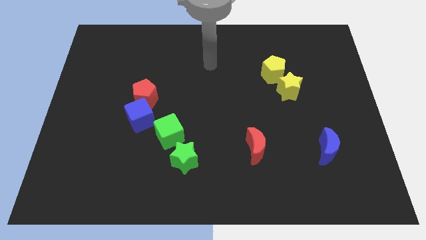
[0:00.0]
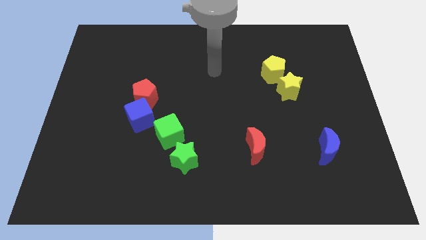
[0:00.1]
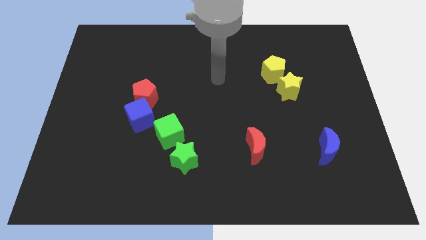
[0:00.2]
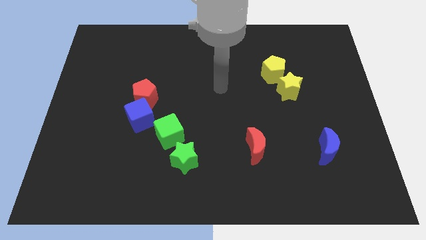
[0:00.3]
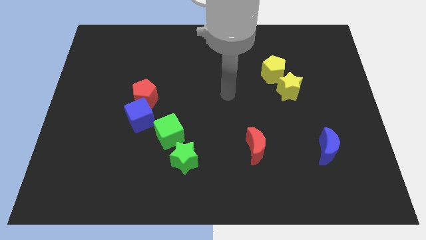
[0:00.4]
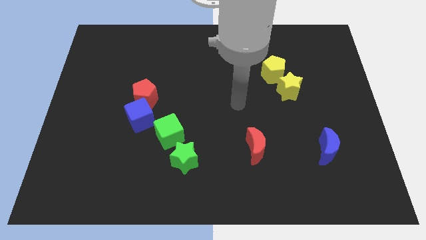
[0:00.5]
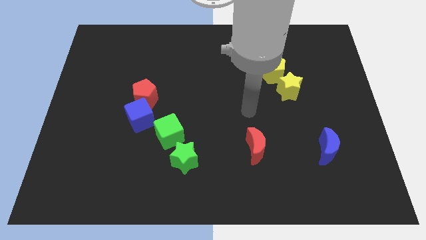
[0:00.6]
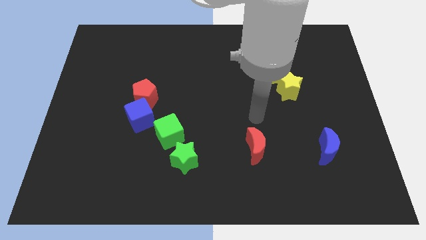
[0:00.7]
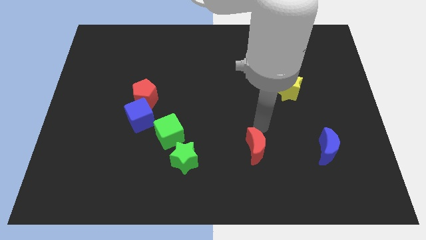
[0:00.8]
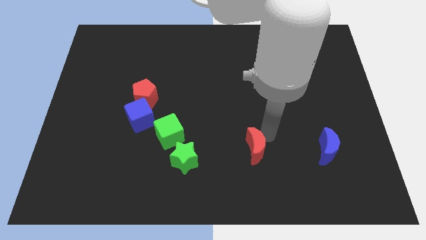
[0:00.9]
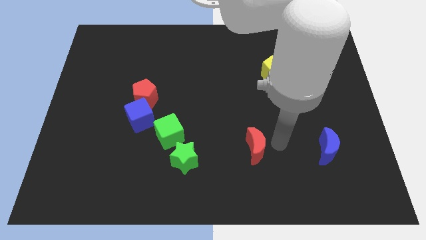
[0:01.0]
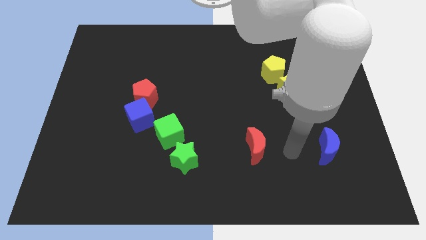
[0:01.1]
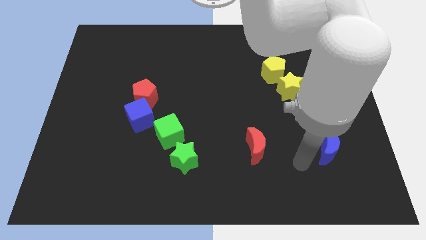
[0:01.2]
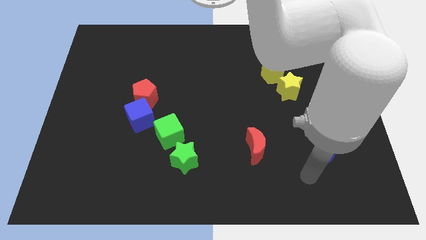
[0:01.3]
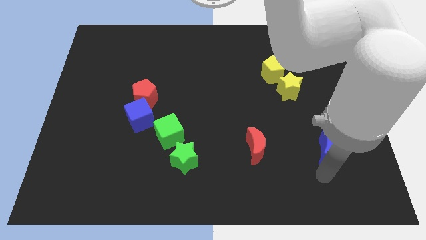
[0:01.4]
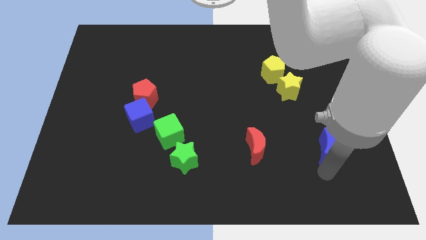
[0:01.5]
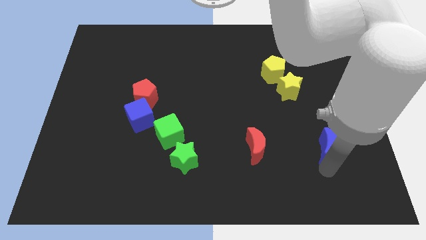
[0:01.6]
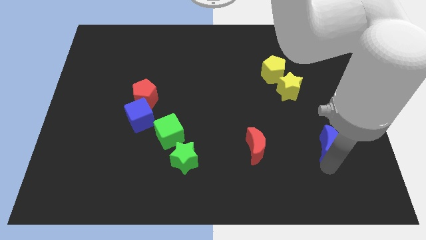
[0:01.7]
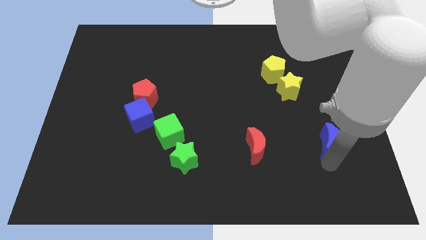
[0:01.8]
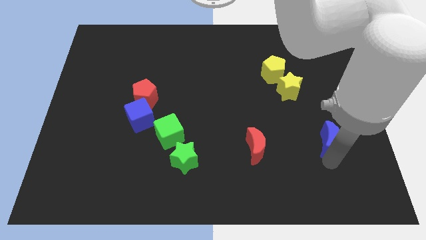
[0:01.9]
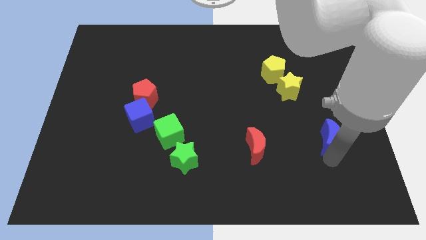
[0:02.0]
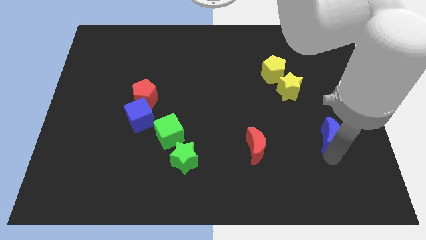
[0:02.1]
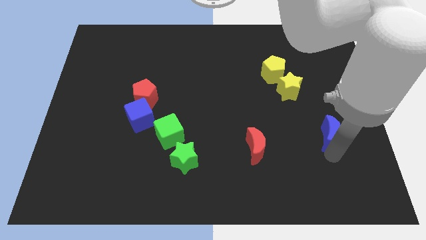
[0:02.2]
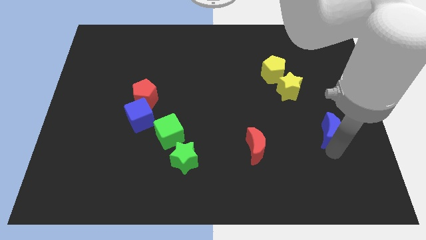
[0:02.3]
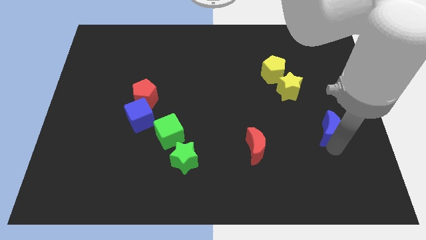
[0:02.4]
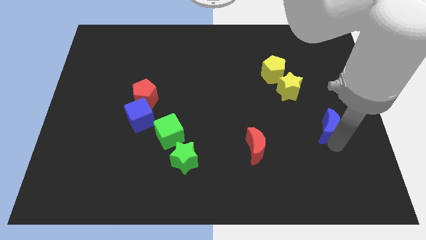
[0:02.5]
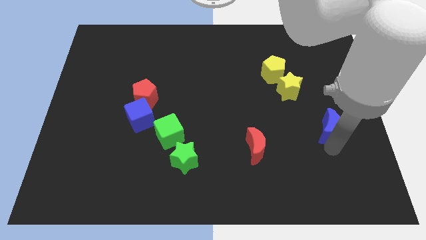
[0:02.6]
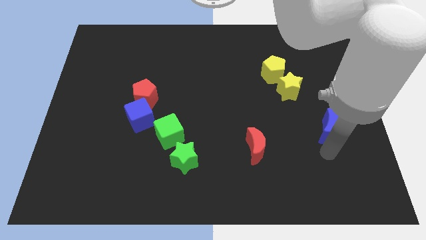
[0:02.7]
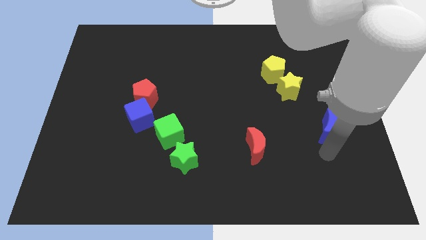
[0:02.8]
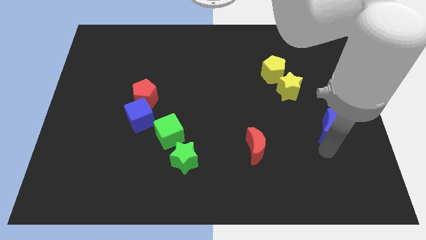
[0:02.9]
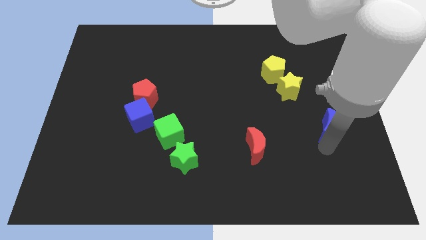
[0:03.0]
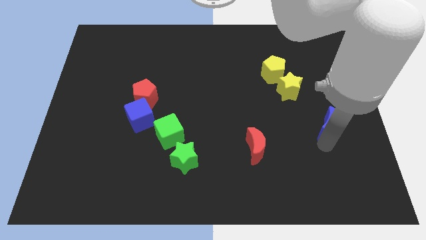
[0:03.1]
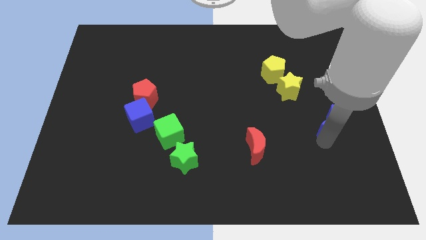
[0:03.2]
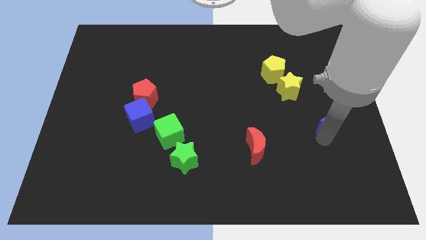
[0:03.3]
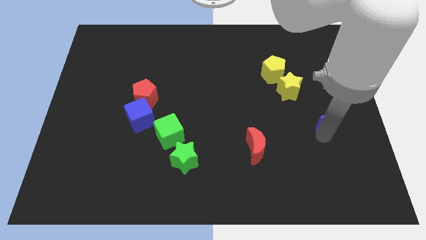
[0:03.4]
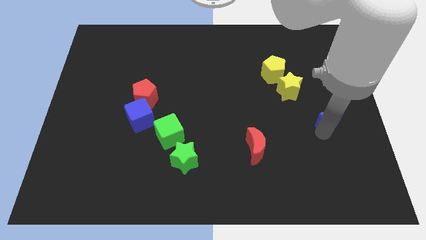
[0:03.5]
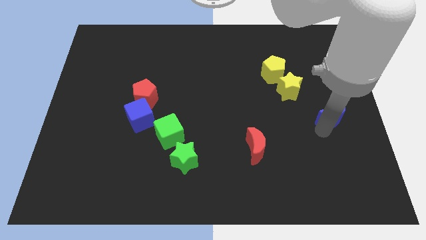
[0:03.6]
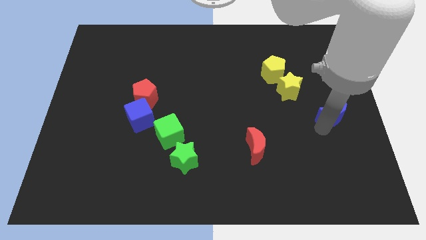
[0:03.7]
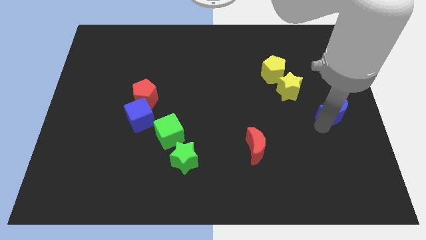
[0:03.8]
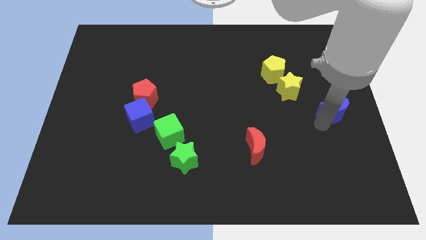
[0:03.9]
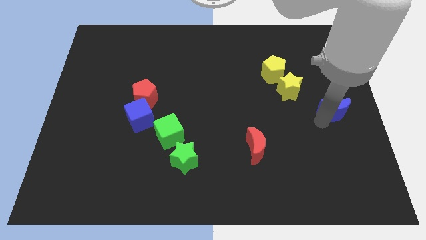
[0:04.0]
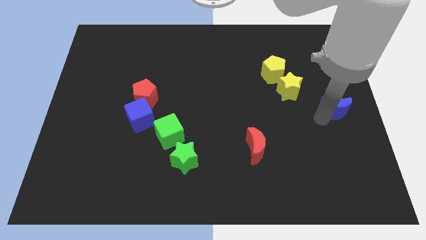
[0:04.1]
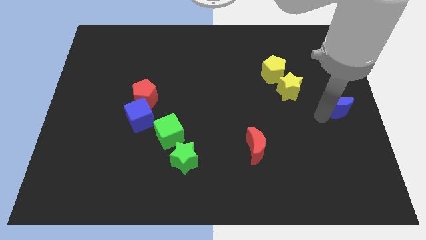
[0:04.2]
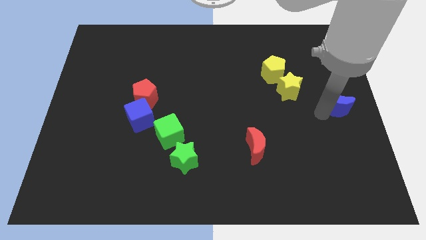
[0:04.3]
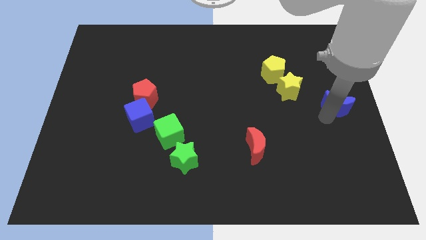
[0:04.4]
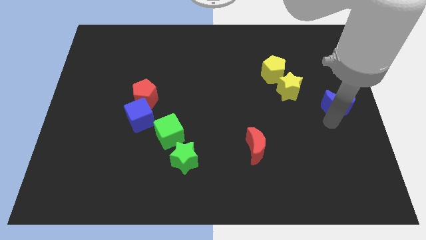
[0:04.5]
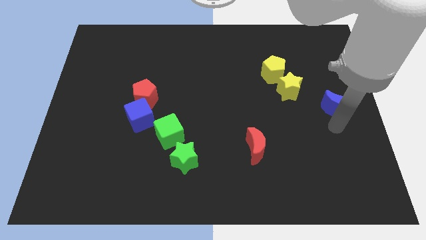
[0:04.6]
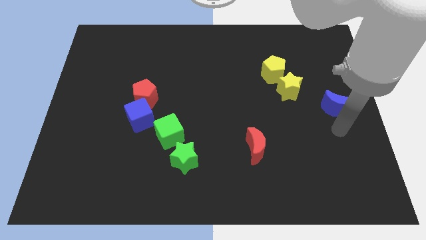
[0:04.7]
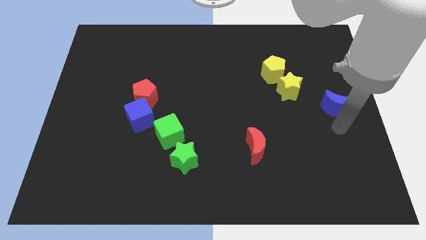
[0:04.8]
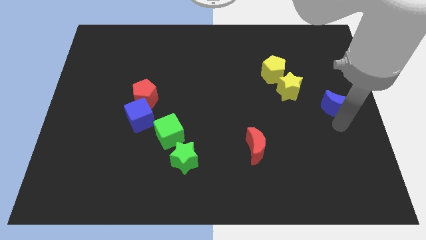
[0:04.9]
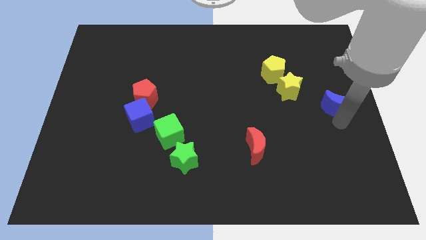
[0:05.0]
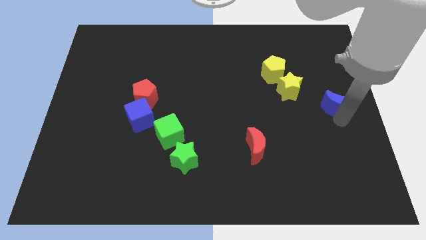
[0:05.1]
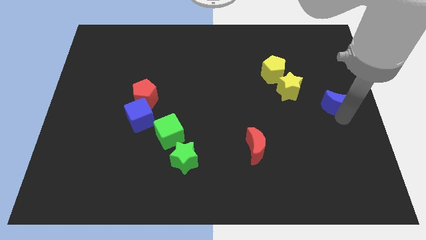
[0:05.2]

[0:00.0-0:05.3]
put the blue moon to the right of the yellow star

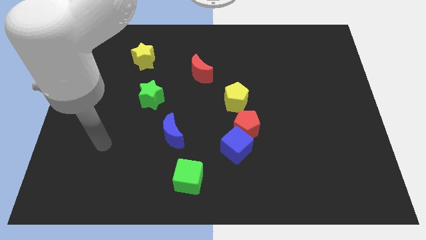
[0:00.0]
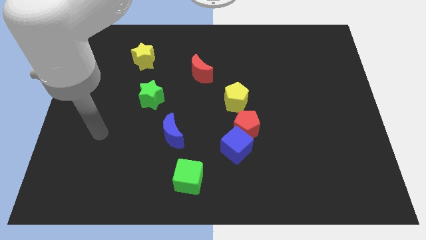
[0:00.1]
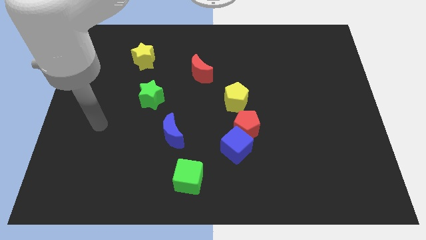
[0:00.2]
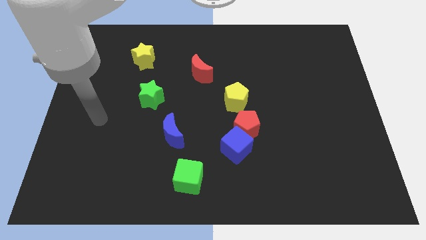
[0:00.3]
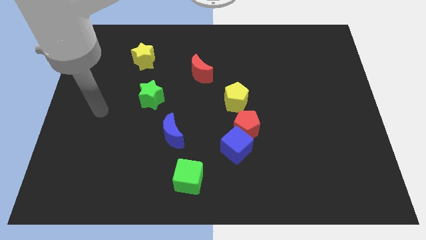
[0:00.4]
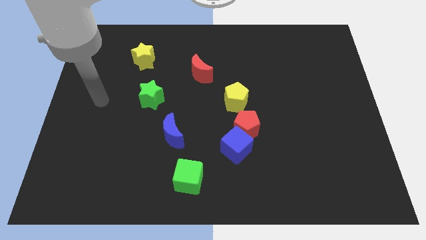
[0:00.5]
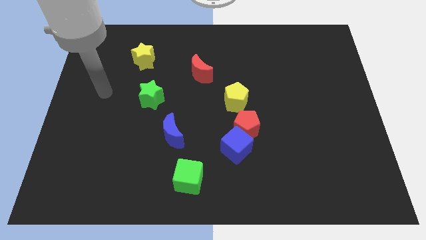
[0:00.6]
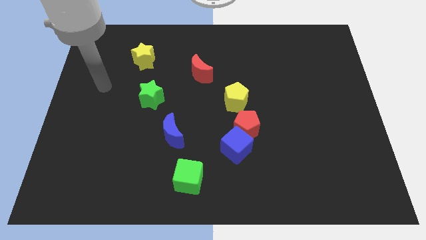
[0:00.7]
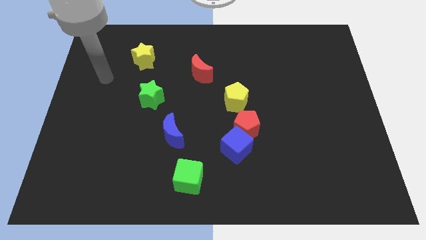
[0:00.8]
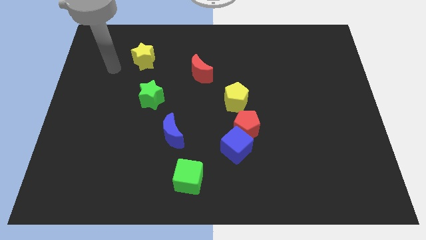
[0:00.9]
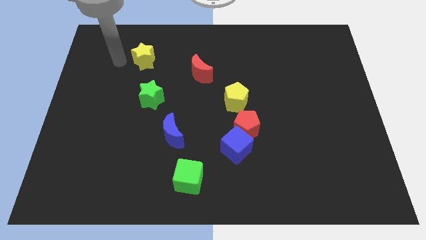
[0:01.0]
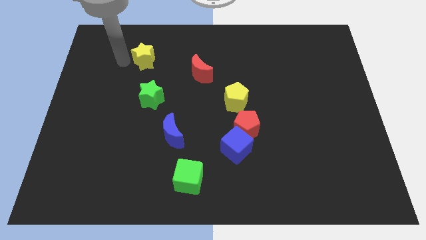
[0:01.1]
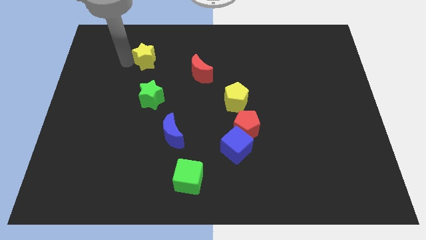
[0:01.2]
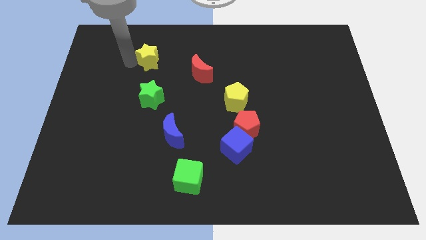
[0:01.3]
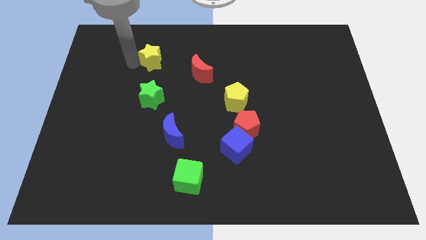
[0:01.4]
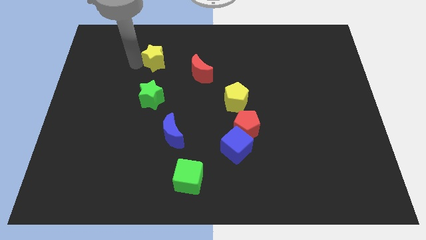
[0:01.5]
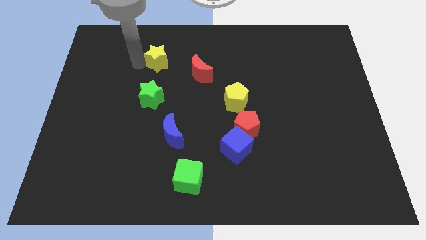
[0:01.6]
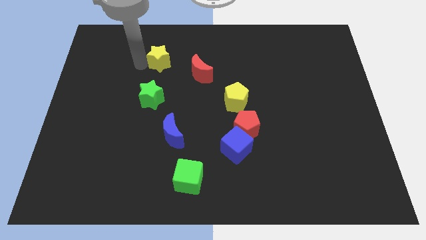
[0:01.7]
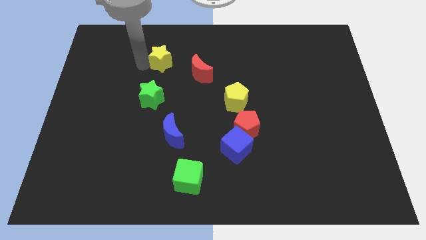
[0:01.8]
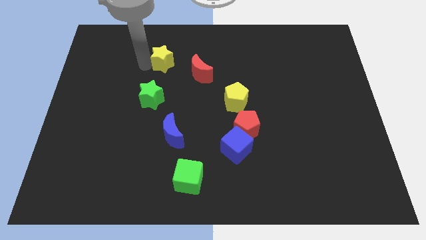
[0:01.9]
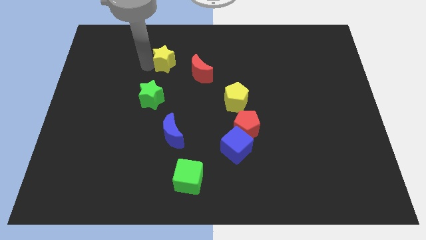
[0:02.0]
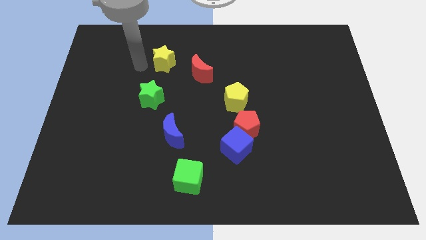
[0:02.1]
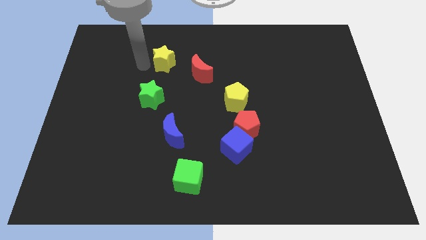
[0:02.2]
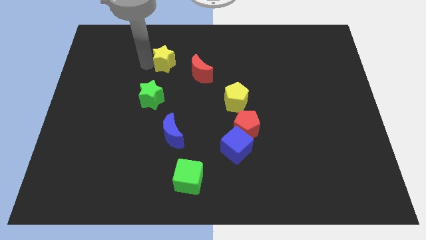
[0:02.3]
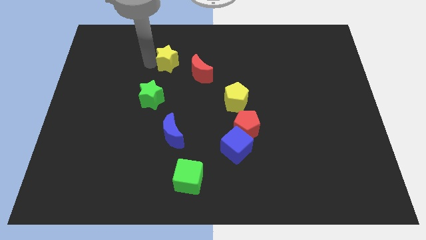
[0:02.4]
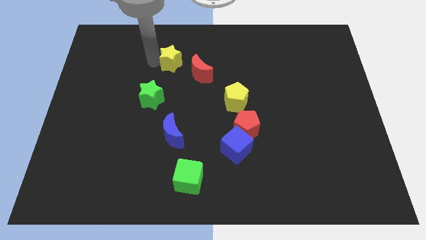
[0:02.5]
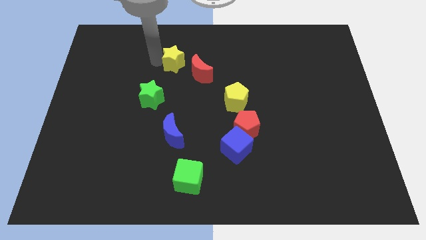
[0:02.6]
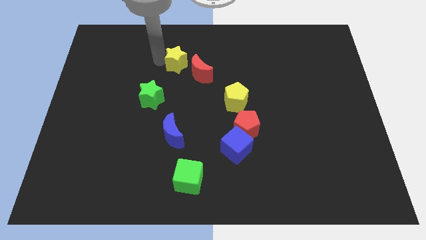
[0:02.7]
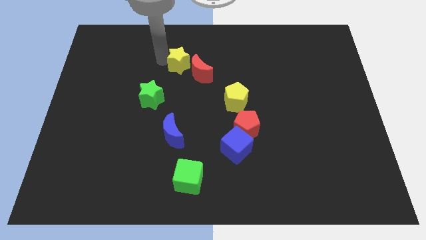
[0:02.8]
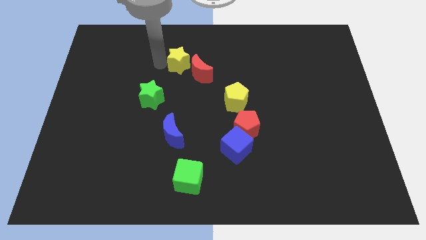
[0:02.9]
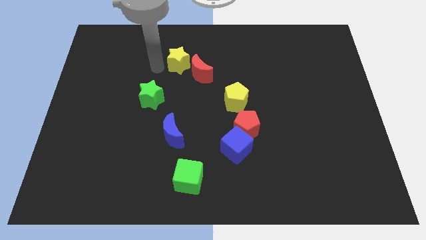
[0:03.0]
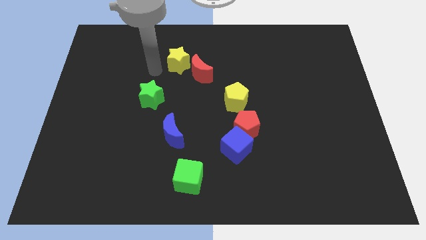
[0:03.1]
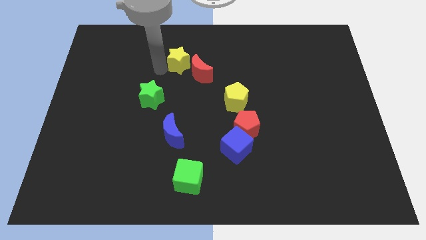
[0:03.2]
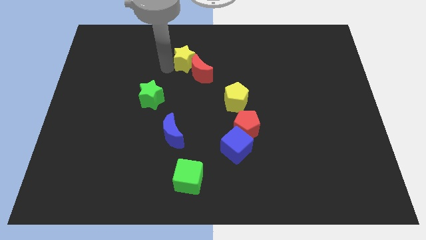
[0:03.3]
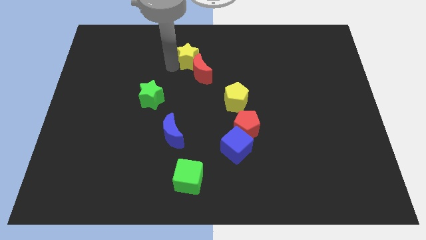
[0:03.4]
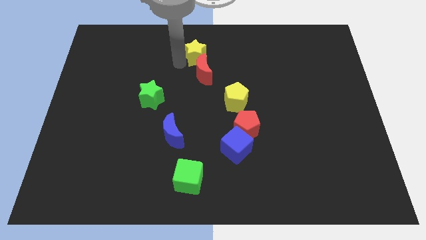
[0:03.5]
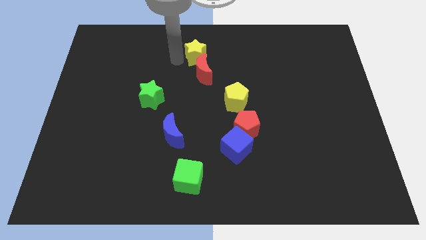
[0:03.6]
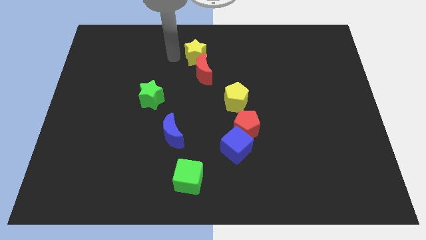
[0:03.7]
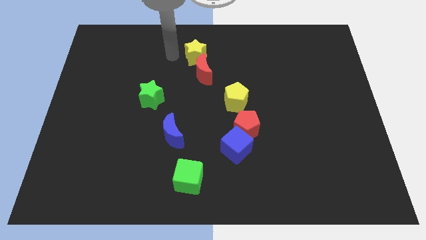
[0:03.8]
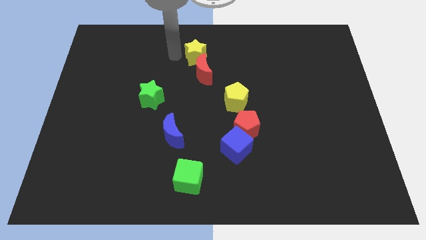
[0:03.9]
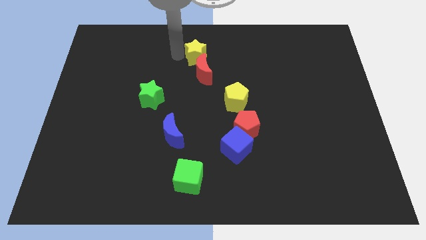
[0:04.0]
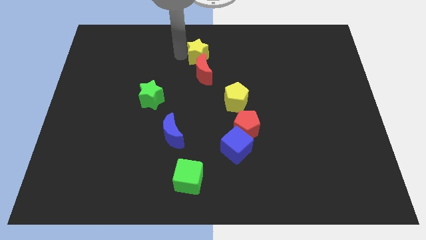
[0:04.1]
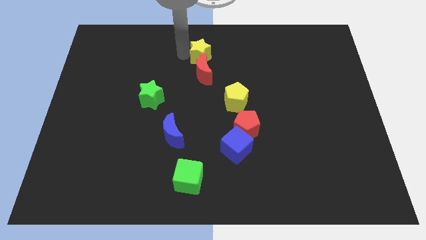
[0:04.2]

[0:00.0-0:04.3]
move the yellow star to the top right of the red moon
